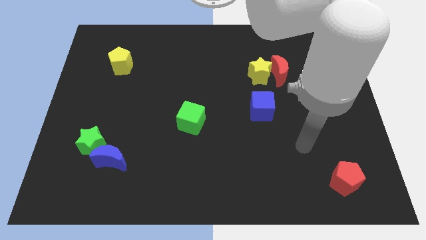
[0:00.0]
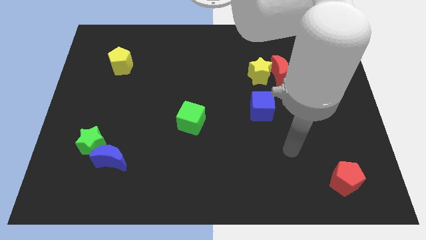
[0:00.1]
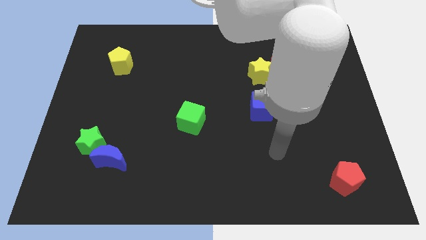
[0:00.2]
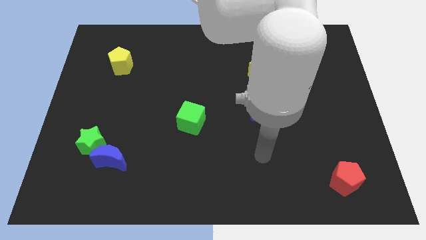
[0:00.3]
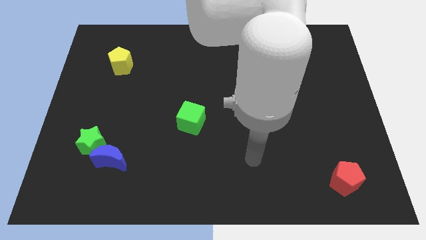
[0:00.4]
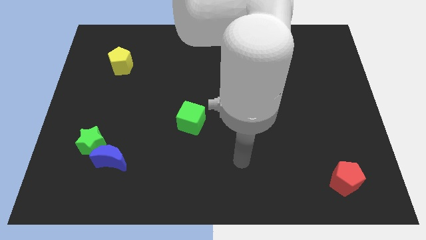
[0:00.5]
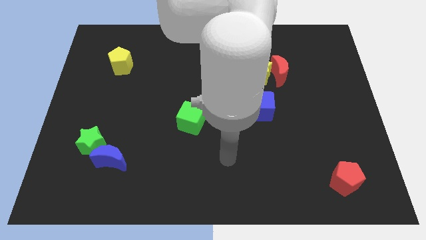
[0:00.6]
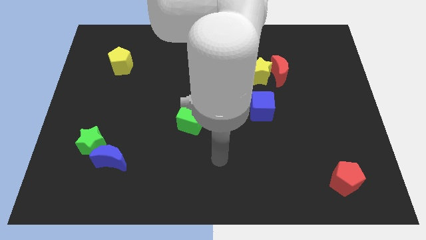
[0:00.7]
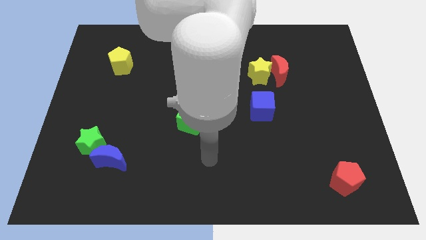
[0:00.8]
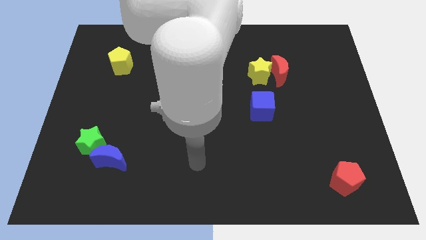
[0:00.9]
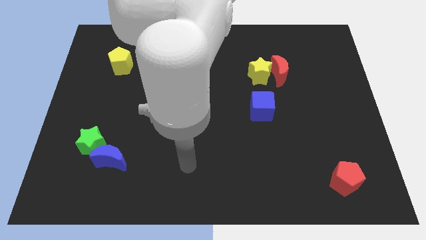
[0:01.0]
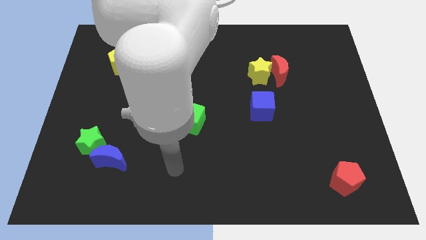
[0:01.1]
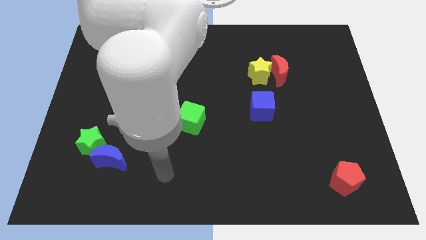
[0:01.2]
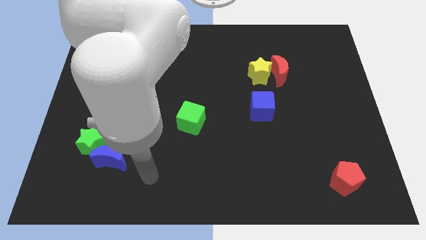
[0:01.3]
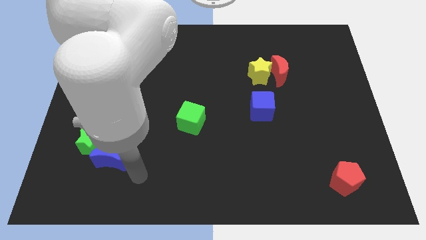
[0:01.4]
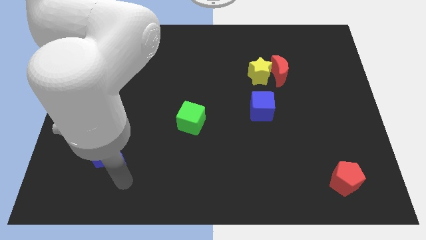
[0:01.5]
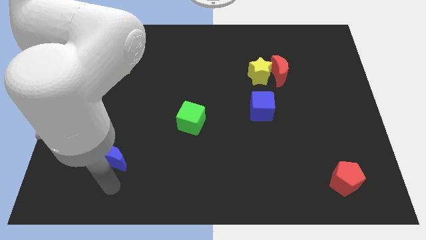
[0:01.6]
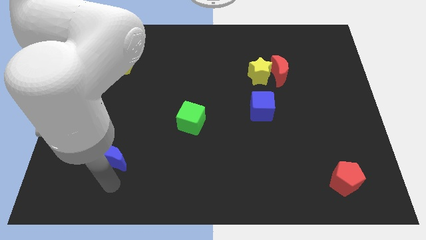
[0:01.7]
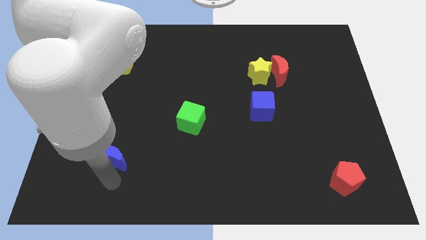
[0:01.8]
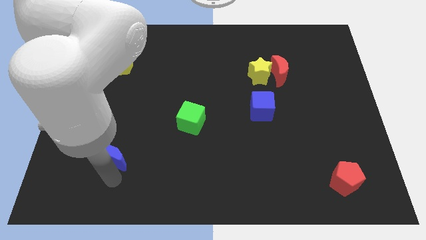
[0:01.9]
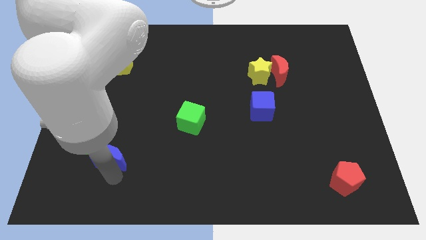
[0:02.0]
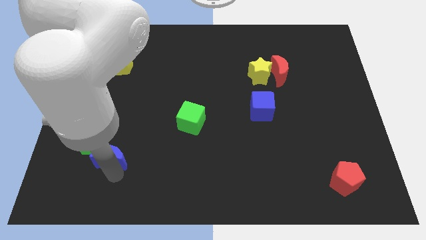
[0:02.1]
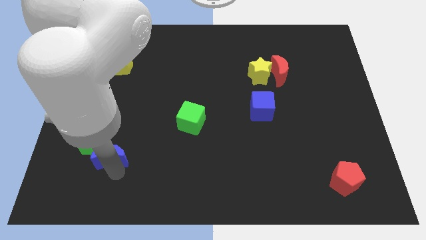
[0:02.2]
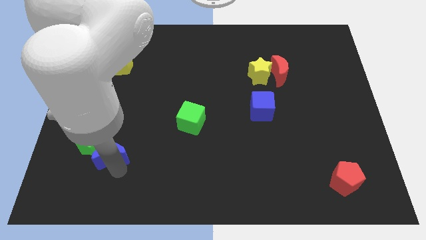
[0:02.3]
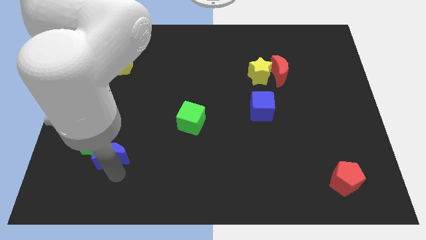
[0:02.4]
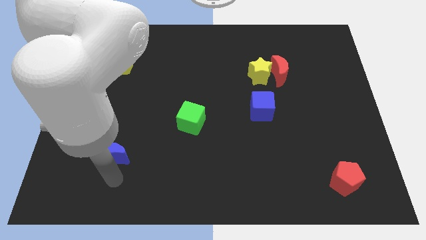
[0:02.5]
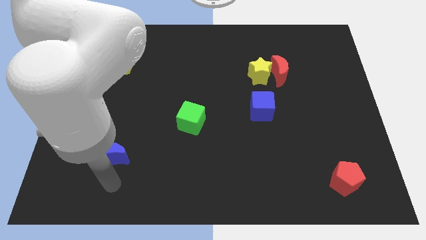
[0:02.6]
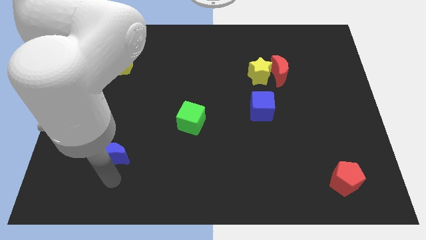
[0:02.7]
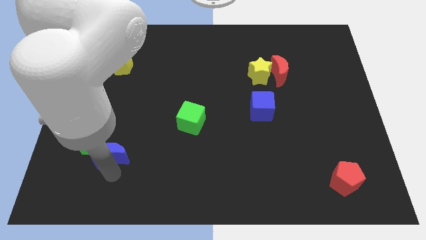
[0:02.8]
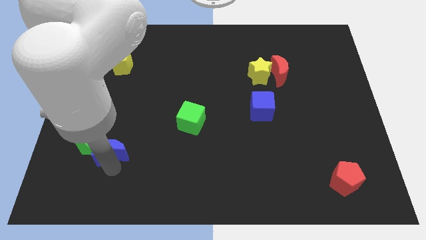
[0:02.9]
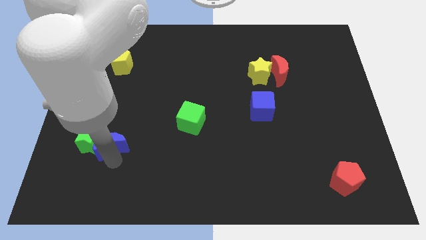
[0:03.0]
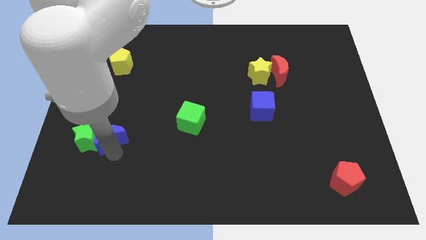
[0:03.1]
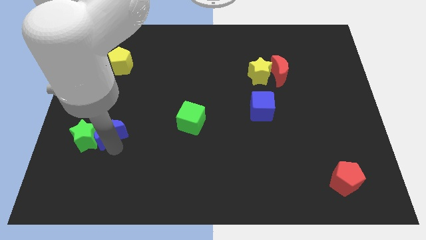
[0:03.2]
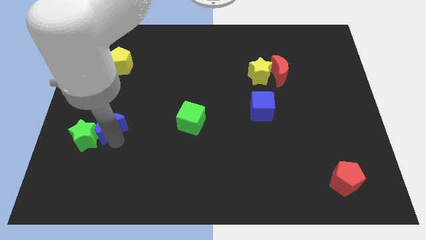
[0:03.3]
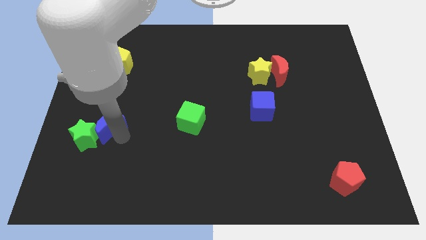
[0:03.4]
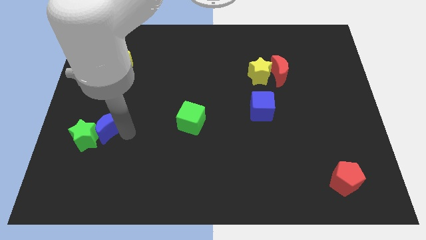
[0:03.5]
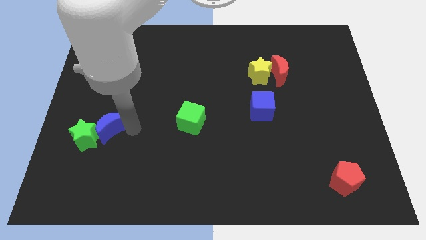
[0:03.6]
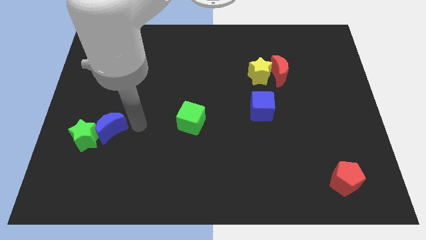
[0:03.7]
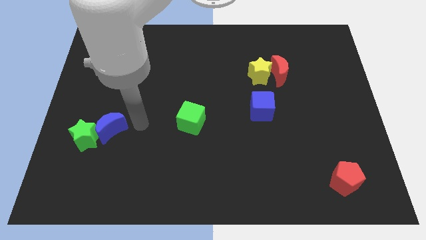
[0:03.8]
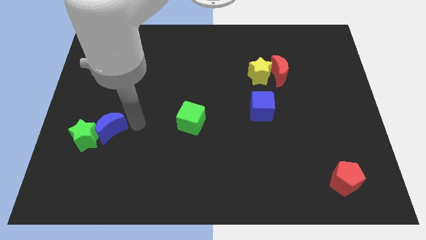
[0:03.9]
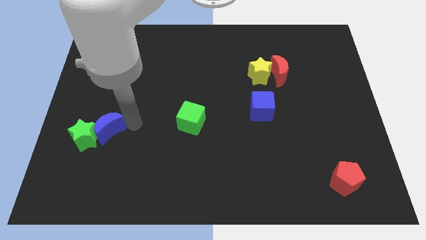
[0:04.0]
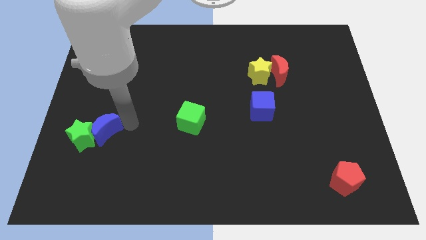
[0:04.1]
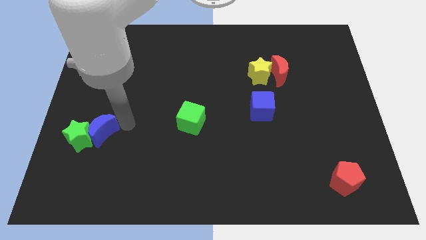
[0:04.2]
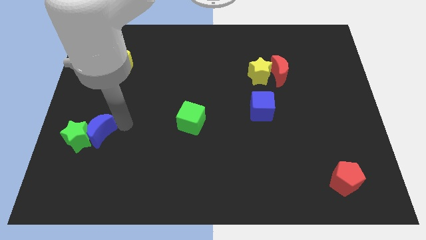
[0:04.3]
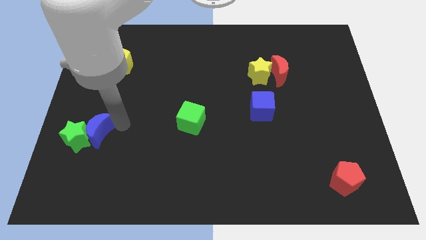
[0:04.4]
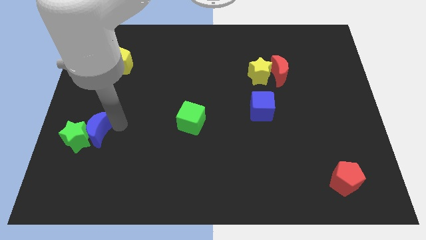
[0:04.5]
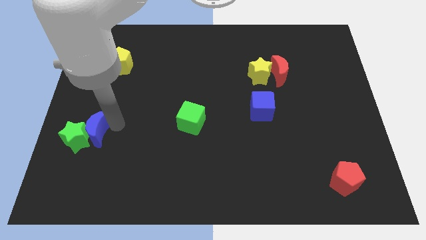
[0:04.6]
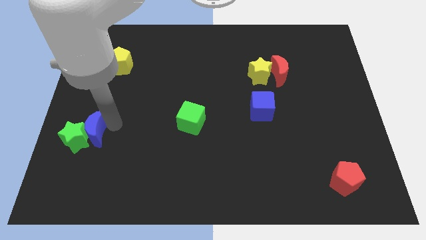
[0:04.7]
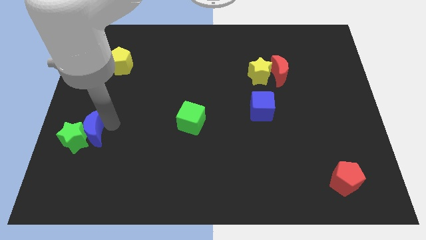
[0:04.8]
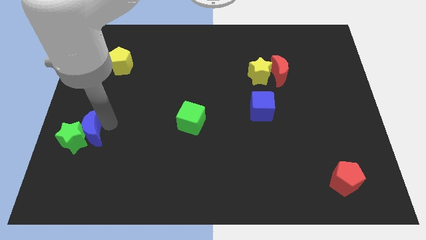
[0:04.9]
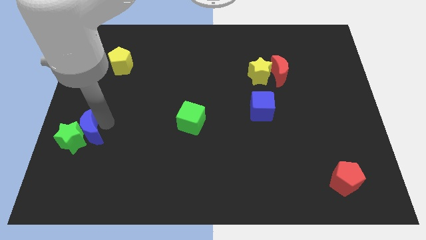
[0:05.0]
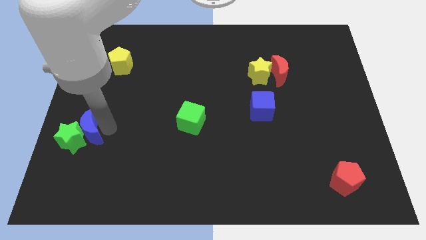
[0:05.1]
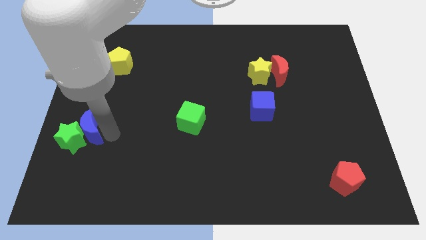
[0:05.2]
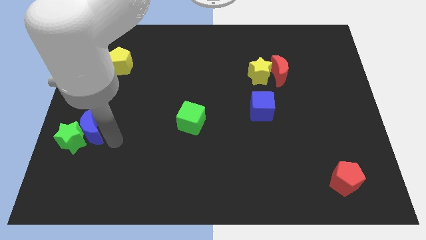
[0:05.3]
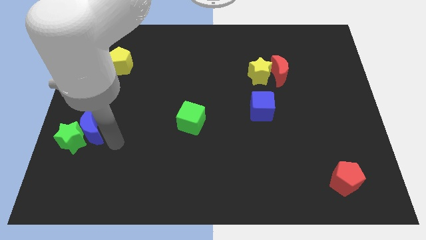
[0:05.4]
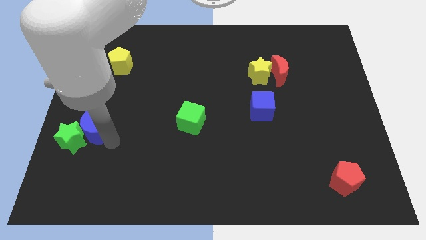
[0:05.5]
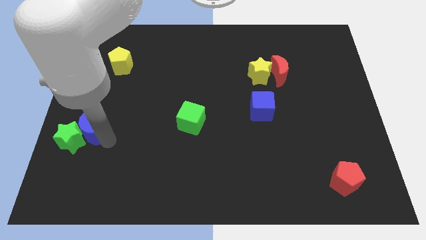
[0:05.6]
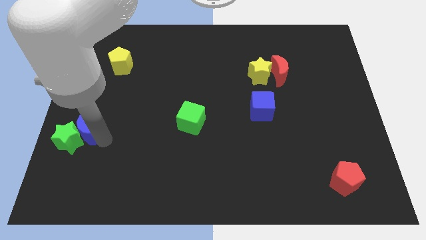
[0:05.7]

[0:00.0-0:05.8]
move the blue moon to the center left

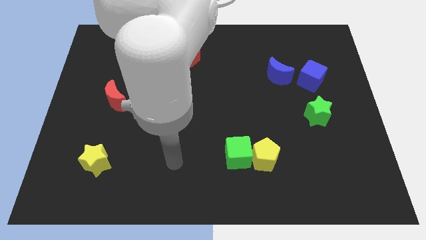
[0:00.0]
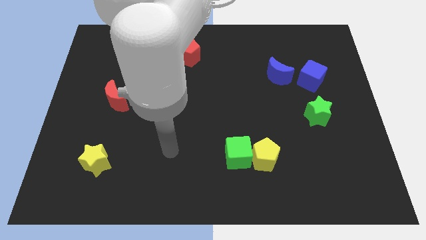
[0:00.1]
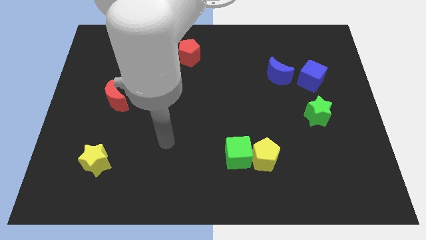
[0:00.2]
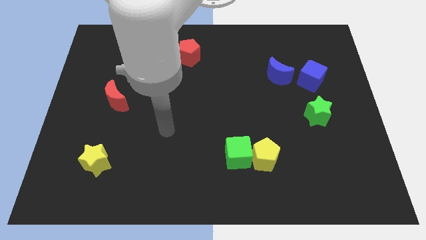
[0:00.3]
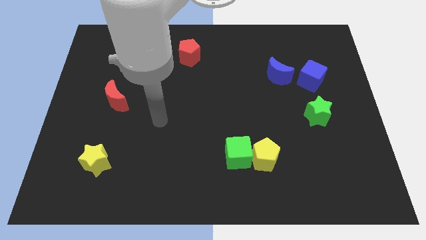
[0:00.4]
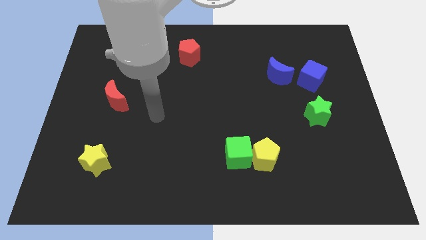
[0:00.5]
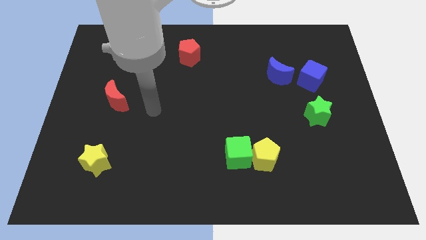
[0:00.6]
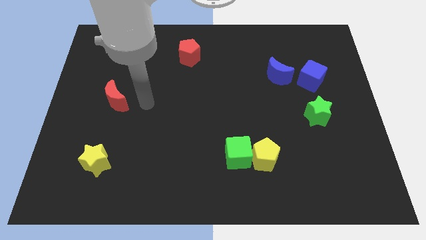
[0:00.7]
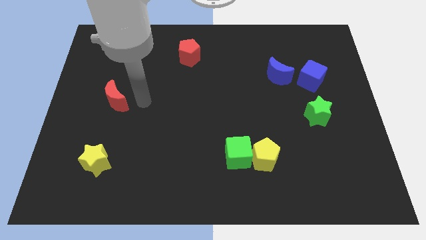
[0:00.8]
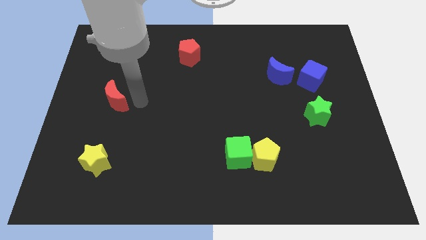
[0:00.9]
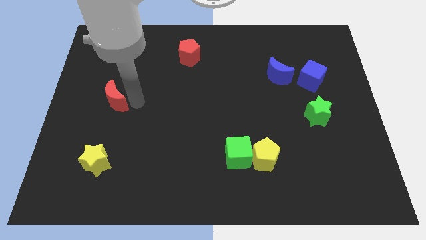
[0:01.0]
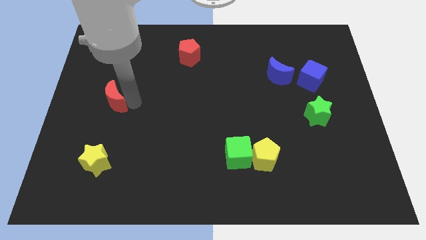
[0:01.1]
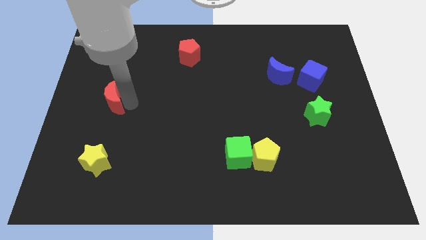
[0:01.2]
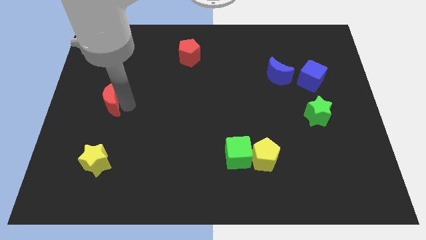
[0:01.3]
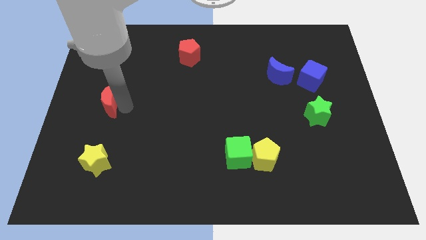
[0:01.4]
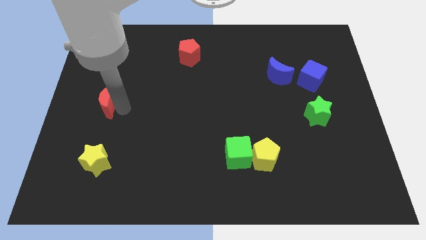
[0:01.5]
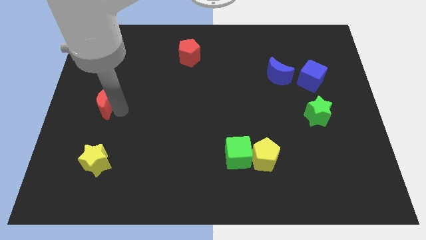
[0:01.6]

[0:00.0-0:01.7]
put the red moon to the center left

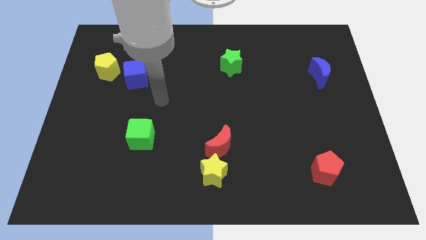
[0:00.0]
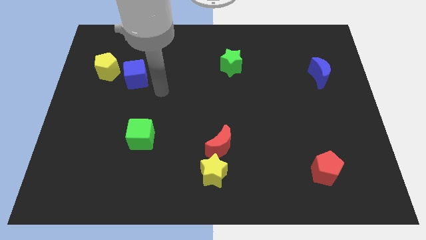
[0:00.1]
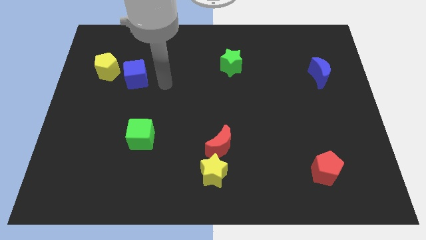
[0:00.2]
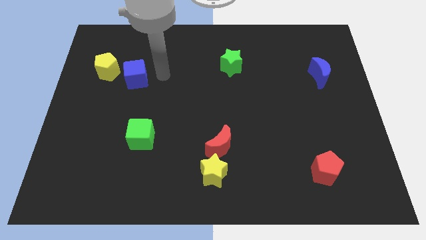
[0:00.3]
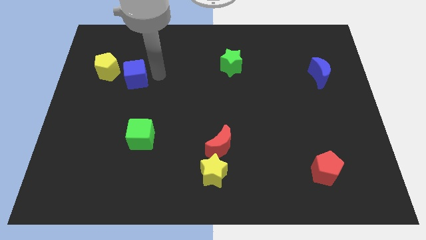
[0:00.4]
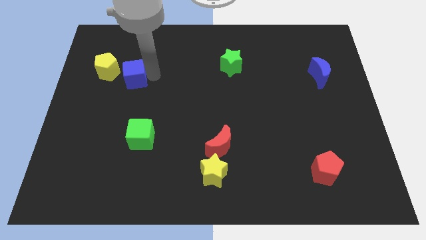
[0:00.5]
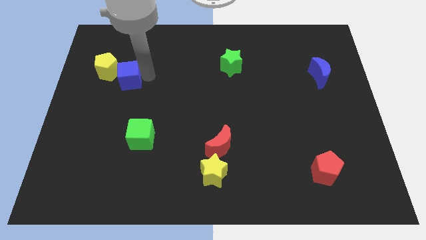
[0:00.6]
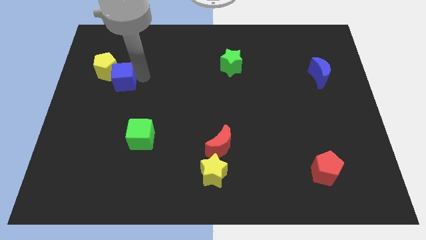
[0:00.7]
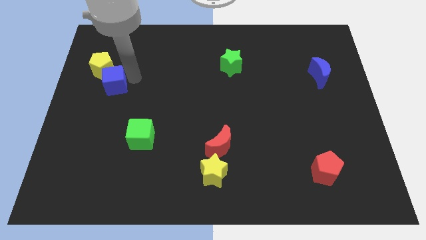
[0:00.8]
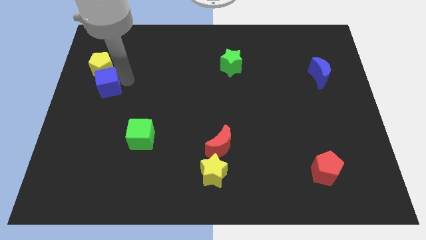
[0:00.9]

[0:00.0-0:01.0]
move the blue cube to the left side of the board
